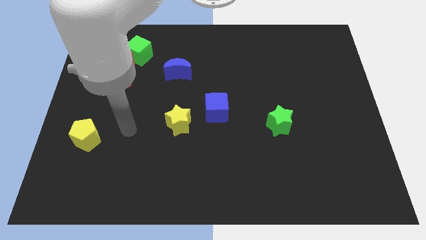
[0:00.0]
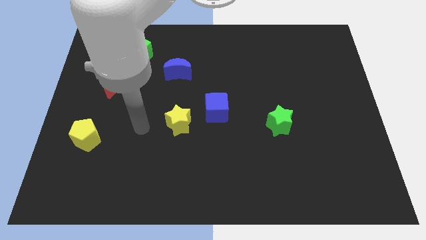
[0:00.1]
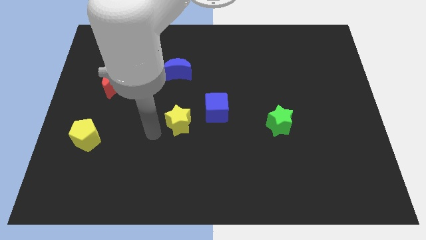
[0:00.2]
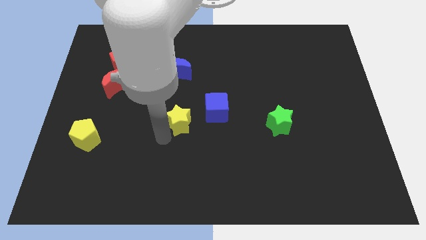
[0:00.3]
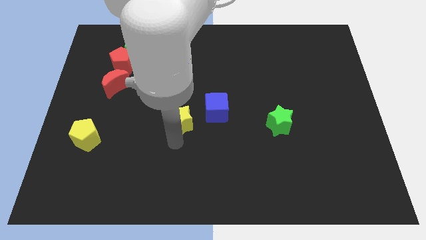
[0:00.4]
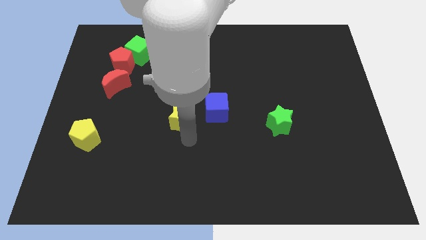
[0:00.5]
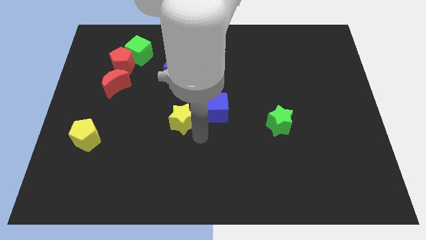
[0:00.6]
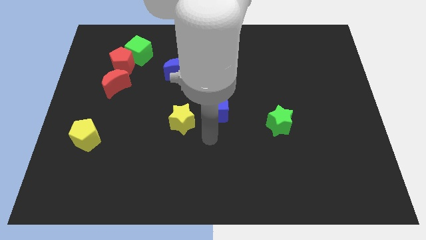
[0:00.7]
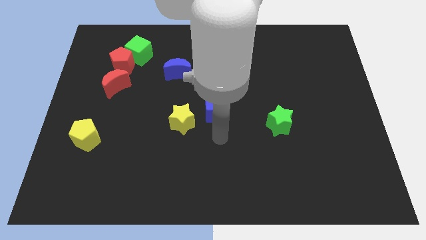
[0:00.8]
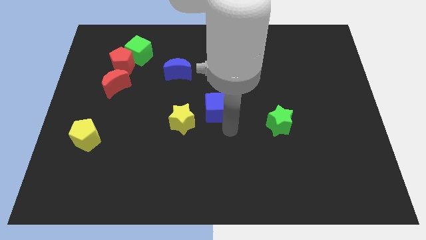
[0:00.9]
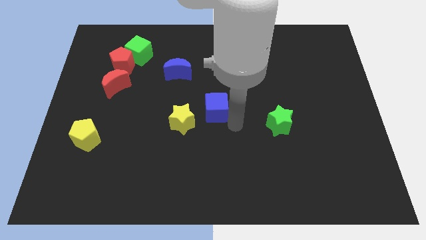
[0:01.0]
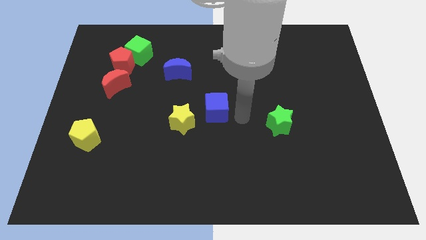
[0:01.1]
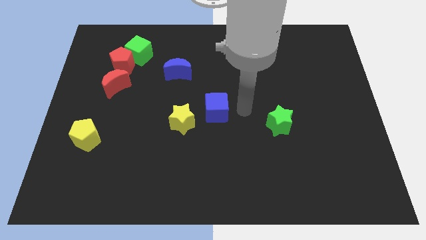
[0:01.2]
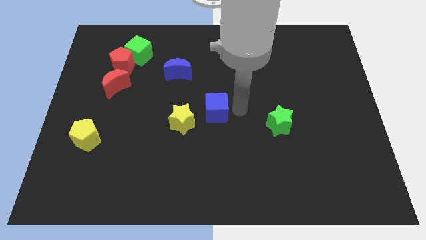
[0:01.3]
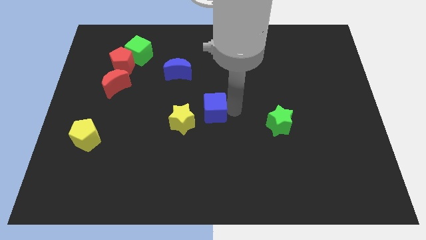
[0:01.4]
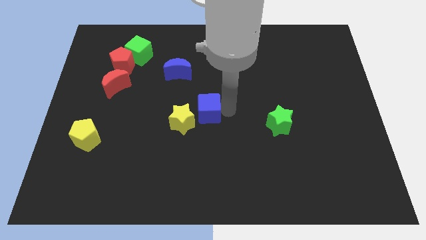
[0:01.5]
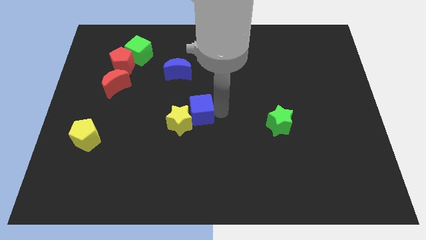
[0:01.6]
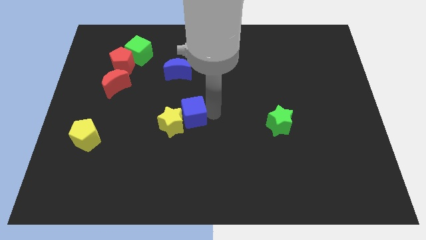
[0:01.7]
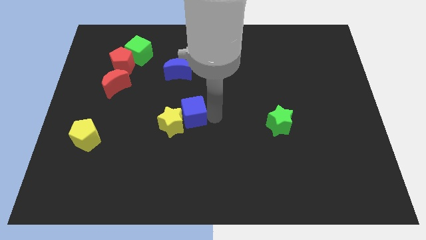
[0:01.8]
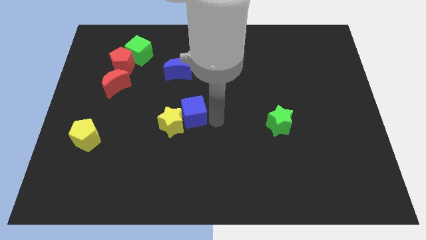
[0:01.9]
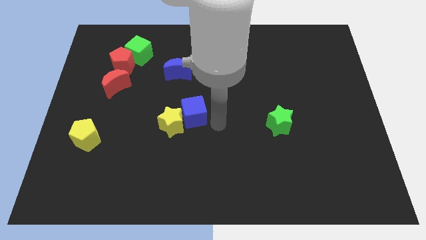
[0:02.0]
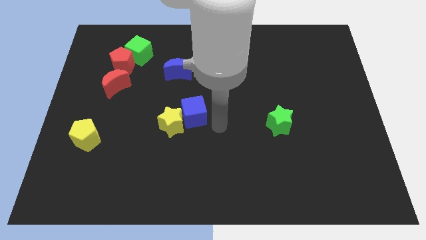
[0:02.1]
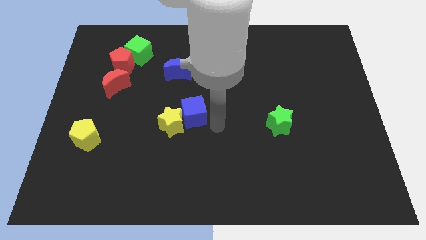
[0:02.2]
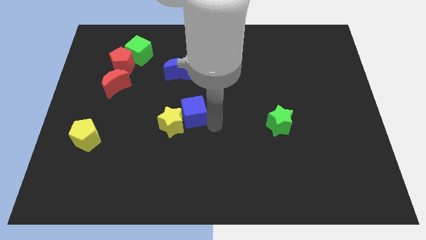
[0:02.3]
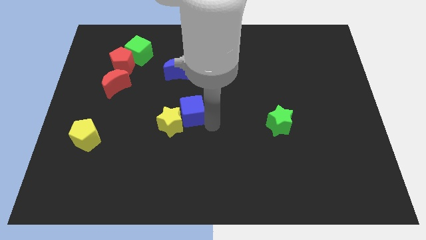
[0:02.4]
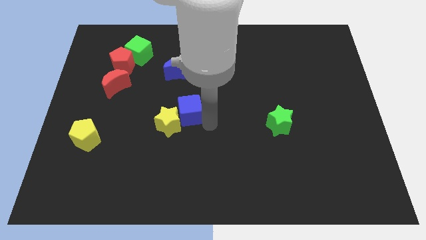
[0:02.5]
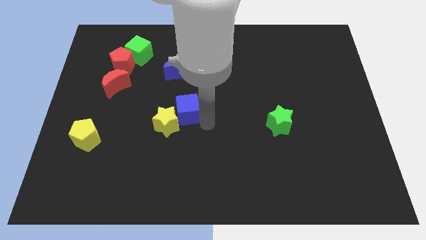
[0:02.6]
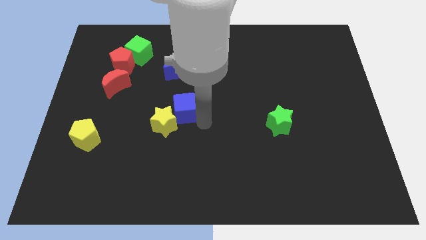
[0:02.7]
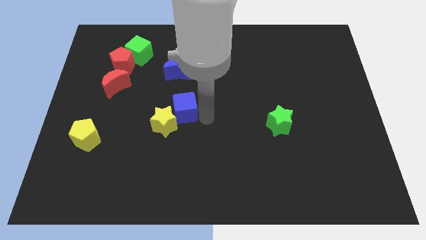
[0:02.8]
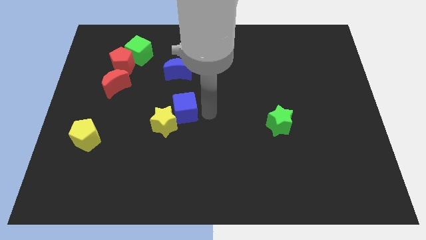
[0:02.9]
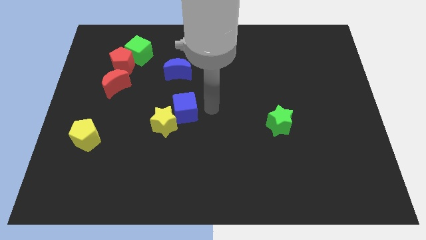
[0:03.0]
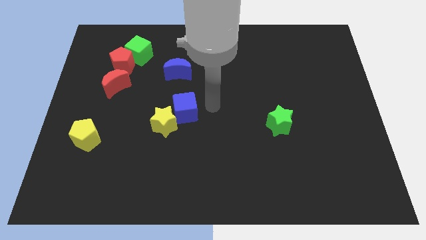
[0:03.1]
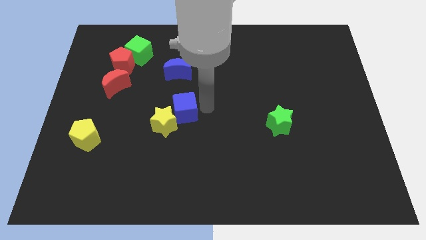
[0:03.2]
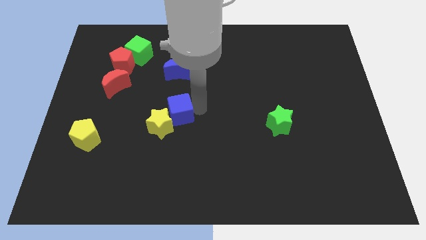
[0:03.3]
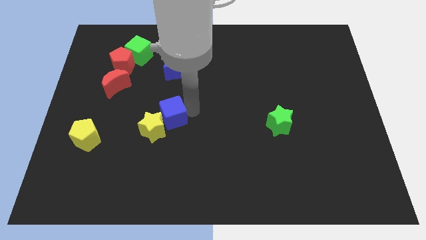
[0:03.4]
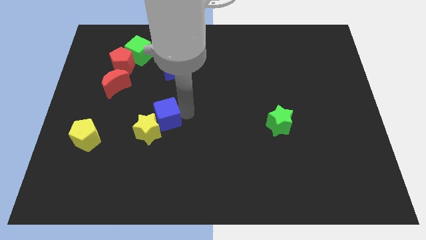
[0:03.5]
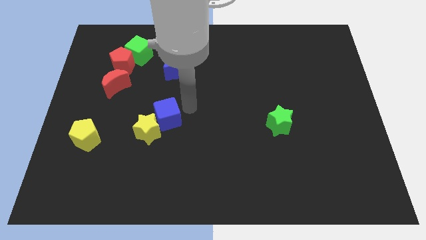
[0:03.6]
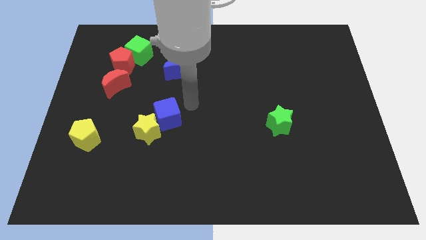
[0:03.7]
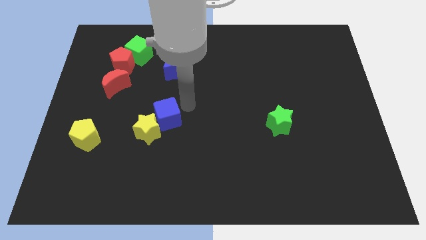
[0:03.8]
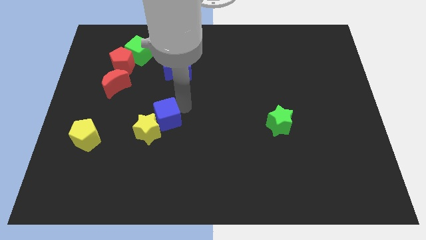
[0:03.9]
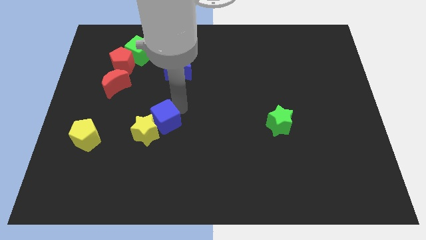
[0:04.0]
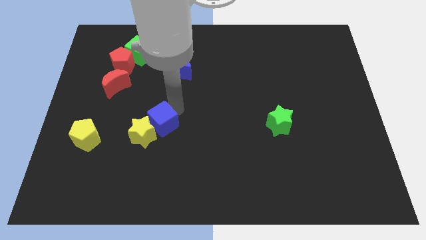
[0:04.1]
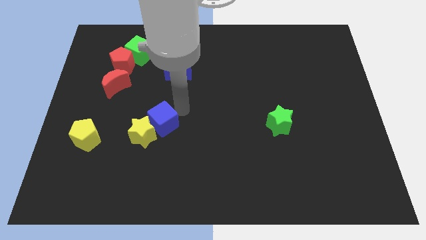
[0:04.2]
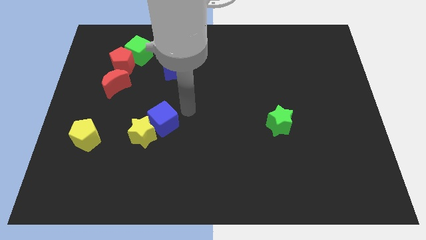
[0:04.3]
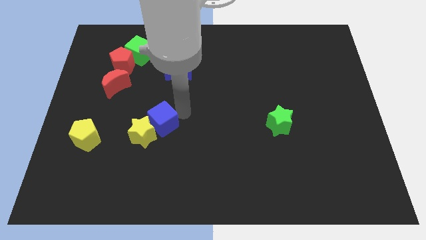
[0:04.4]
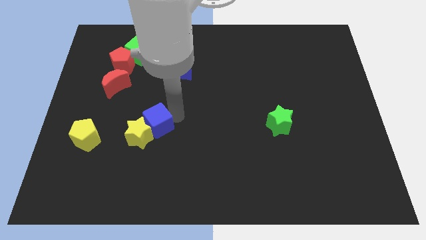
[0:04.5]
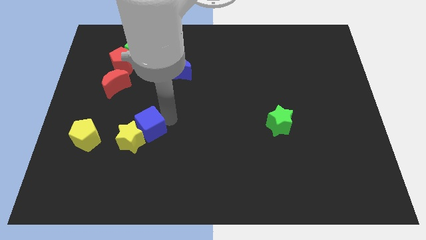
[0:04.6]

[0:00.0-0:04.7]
push the blue cube just right of the yellow pentagon

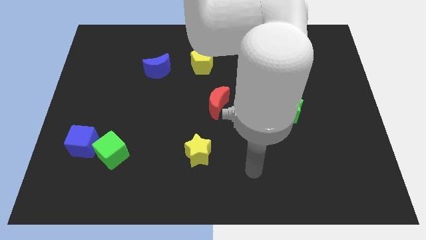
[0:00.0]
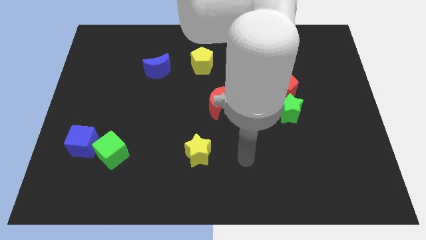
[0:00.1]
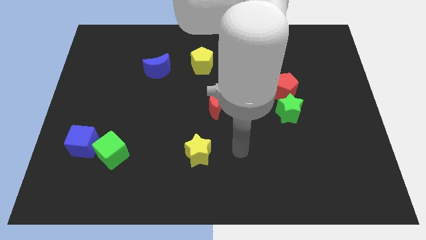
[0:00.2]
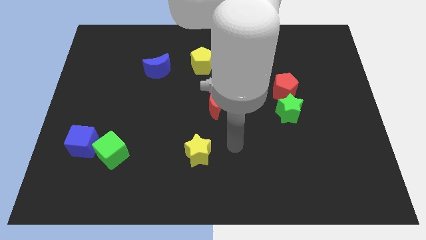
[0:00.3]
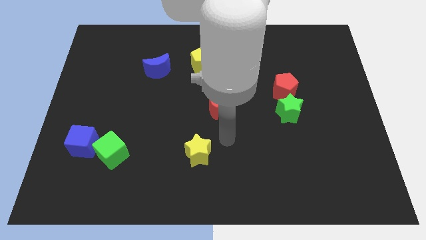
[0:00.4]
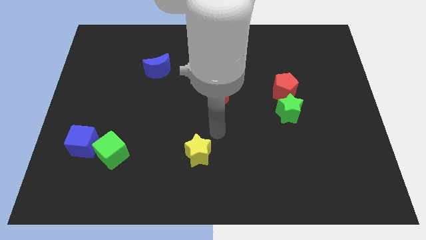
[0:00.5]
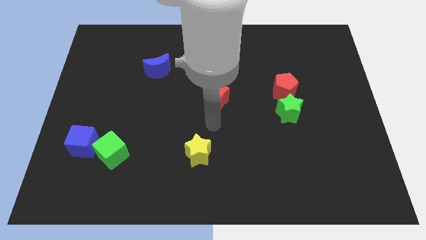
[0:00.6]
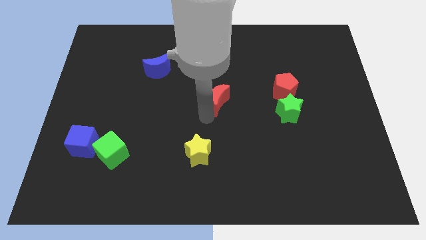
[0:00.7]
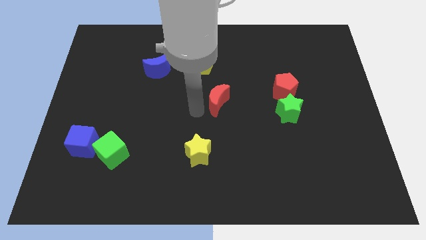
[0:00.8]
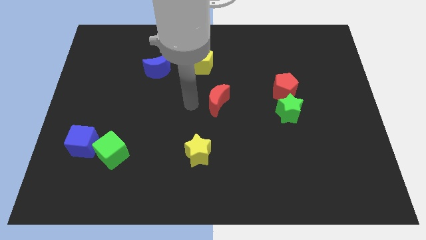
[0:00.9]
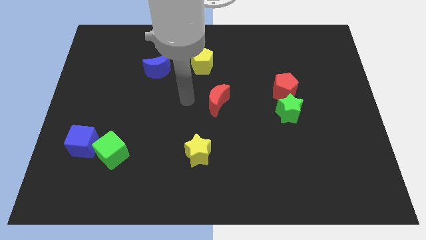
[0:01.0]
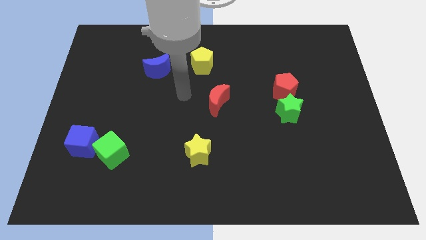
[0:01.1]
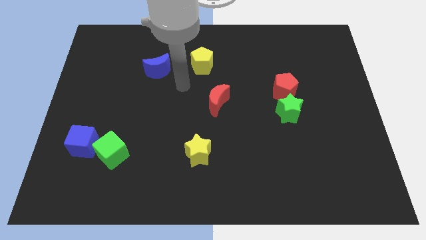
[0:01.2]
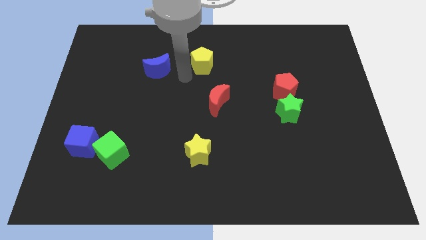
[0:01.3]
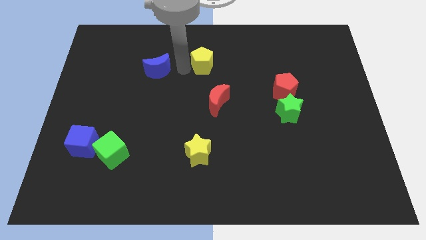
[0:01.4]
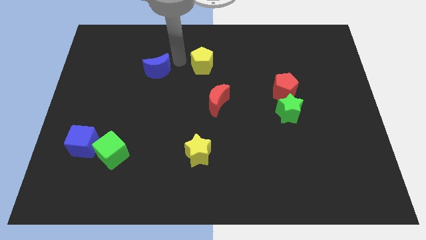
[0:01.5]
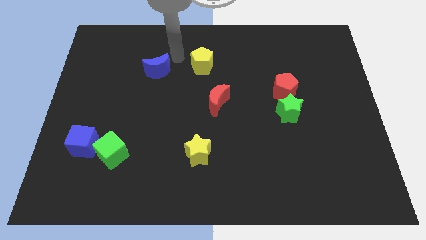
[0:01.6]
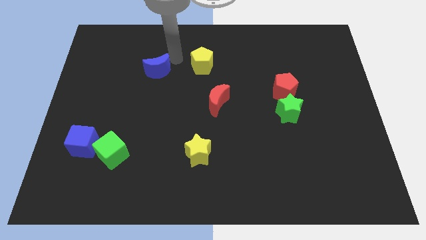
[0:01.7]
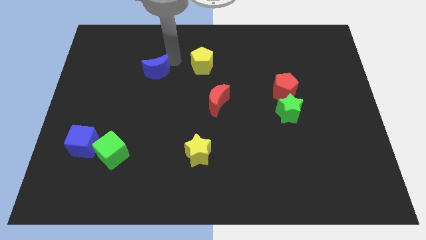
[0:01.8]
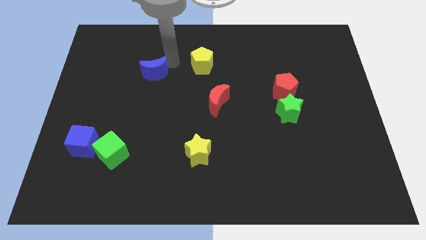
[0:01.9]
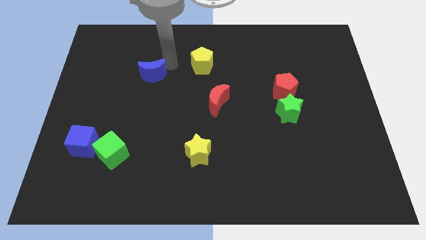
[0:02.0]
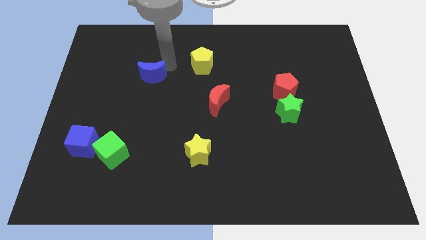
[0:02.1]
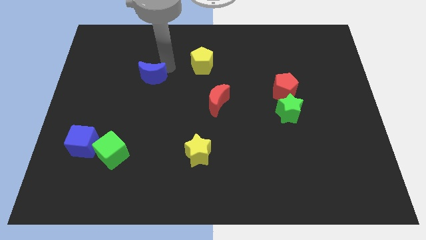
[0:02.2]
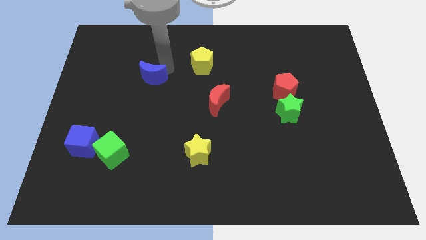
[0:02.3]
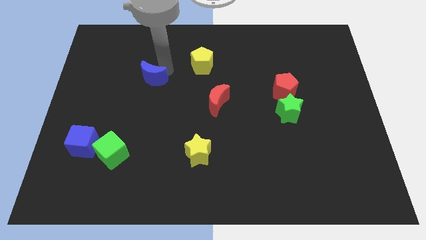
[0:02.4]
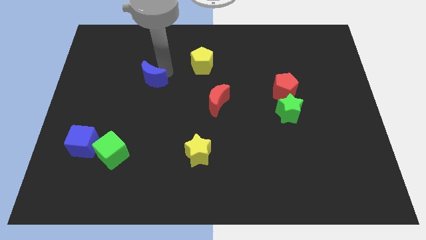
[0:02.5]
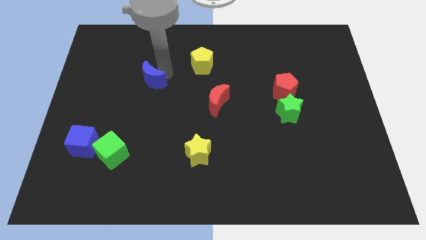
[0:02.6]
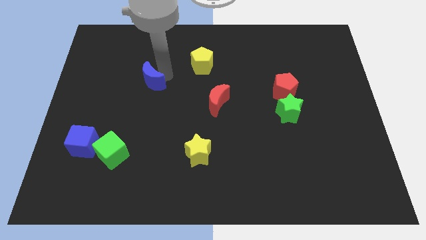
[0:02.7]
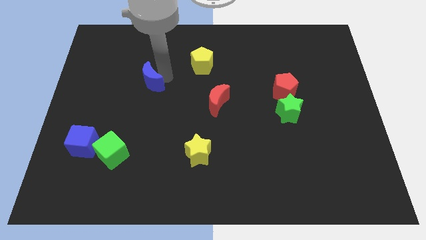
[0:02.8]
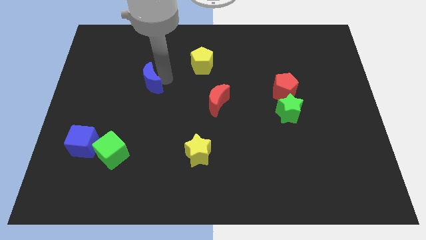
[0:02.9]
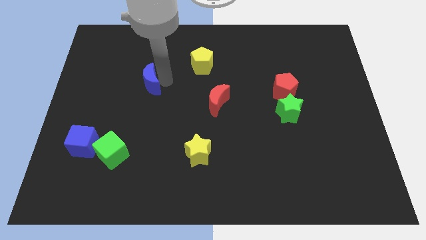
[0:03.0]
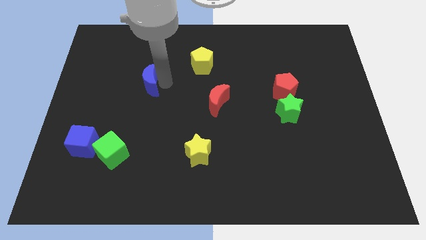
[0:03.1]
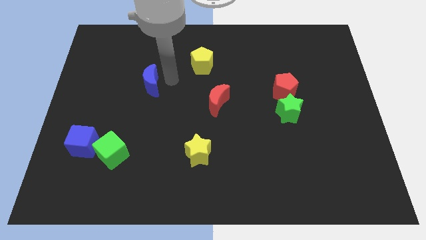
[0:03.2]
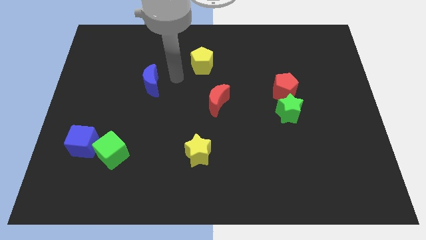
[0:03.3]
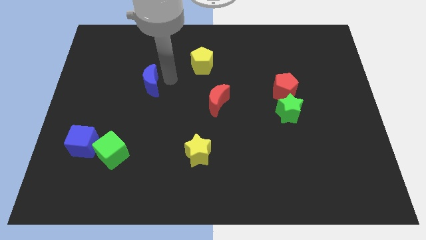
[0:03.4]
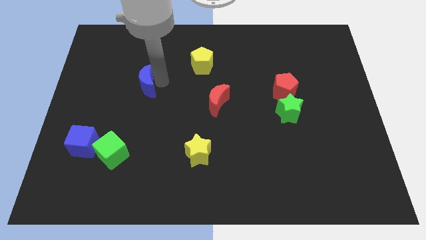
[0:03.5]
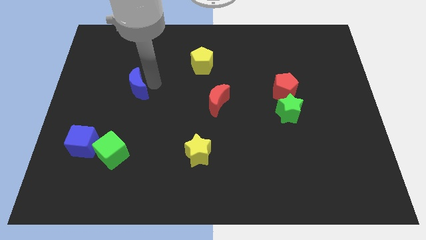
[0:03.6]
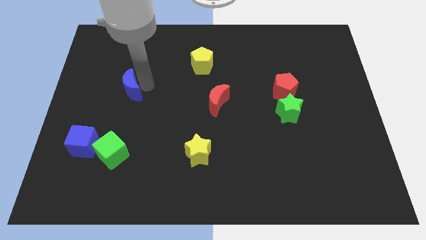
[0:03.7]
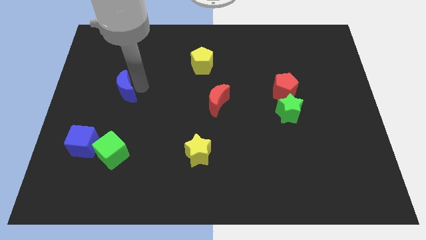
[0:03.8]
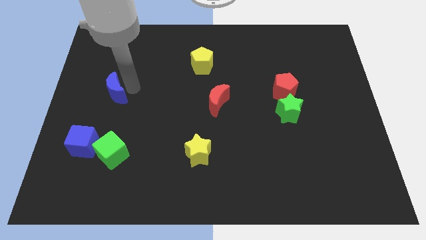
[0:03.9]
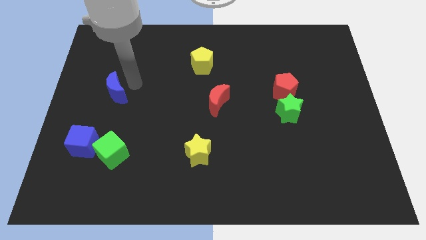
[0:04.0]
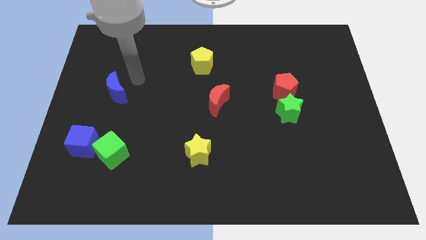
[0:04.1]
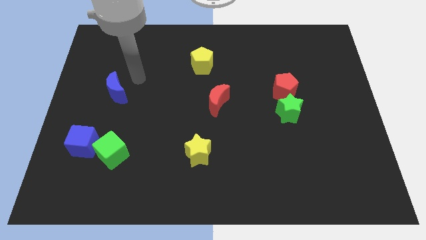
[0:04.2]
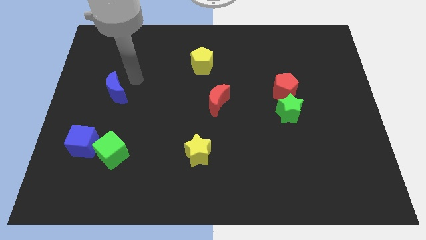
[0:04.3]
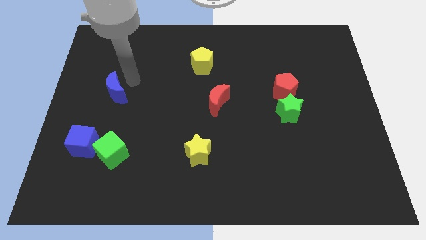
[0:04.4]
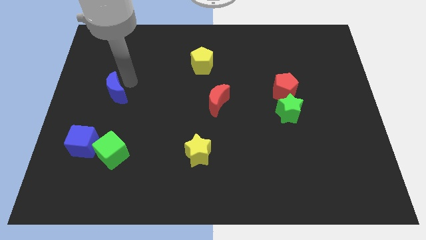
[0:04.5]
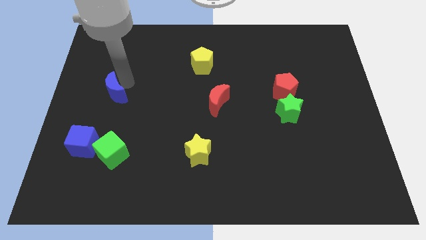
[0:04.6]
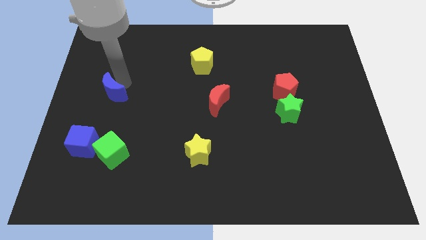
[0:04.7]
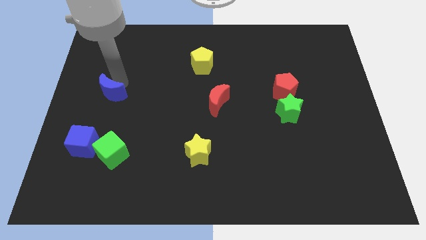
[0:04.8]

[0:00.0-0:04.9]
slide the blue moon to the top of the blue cube
